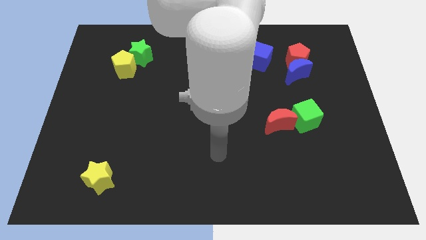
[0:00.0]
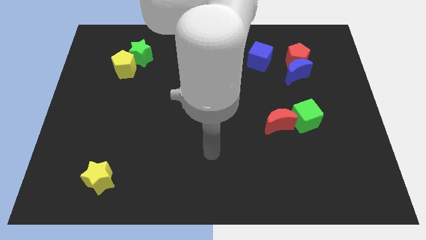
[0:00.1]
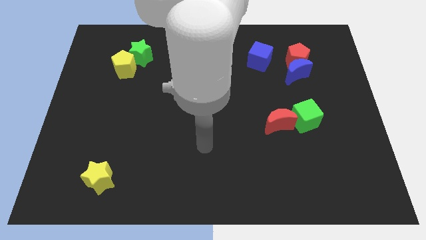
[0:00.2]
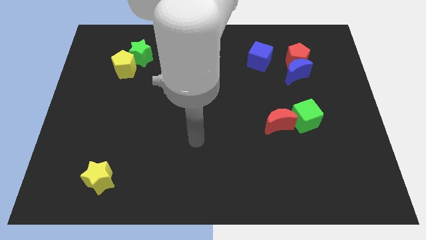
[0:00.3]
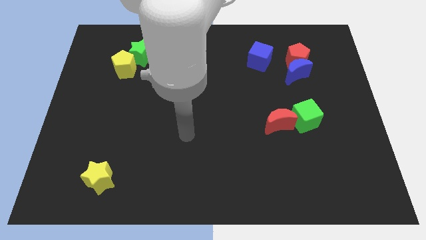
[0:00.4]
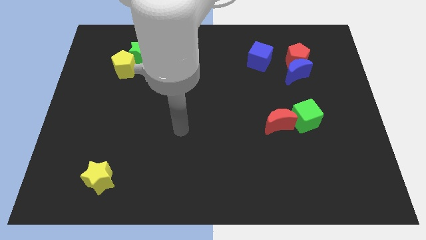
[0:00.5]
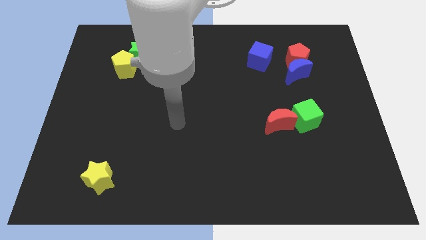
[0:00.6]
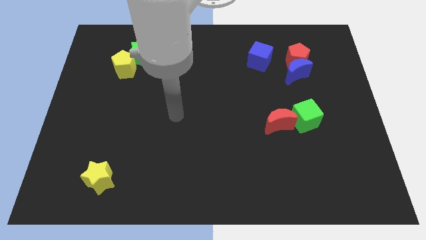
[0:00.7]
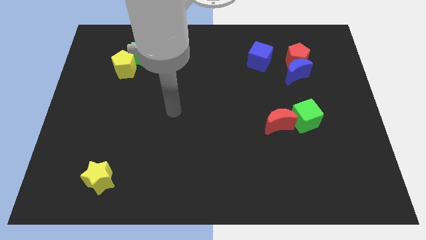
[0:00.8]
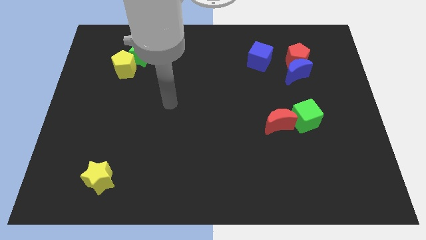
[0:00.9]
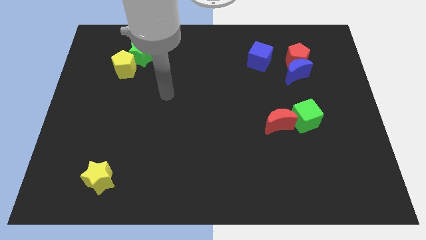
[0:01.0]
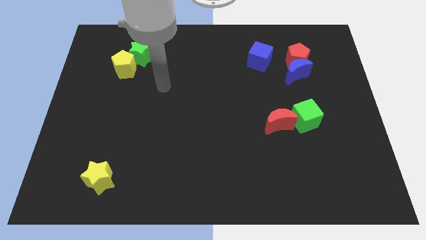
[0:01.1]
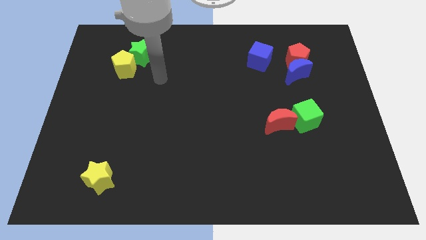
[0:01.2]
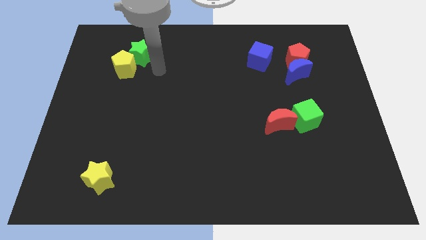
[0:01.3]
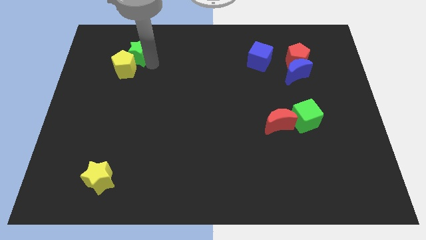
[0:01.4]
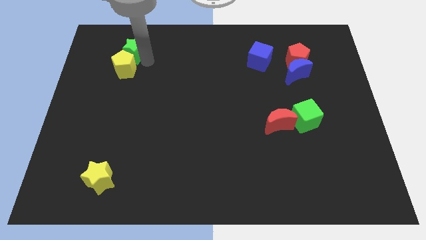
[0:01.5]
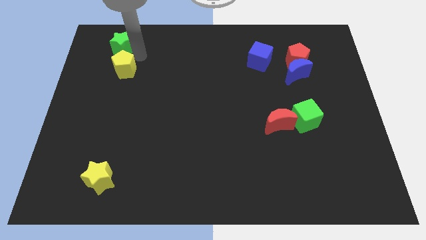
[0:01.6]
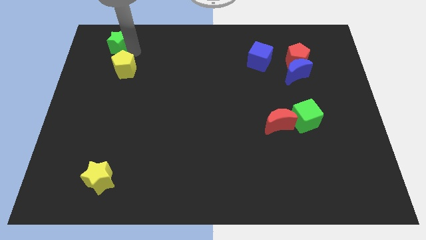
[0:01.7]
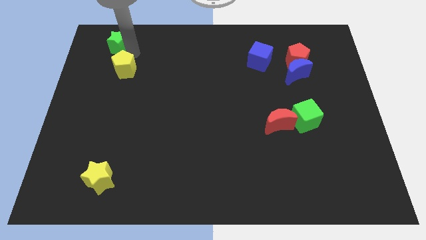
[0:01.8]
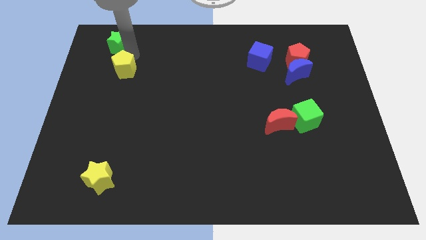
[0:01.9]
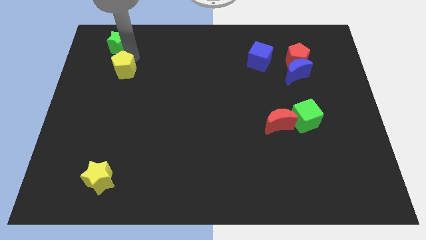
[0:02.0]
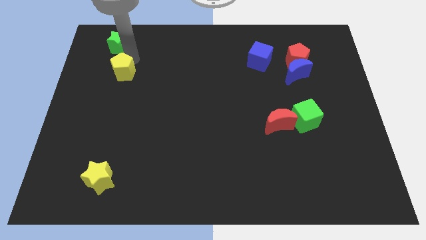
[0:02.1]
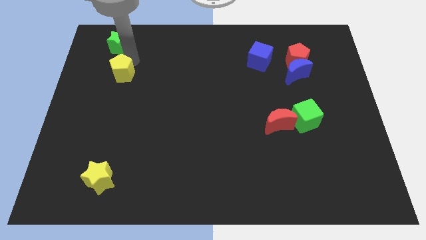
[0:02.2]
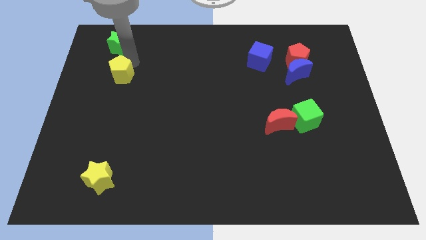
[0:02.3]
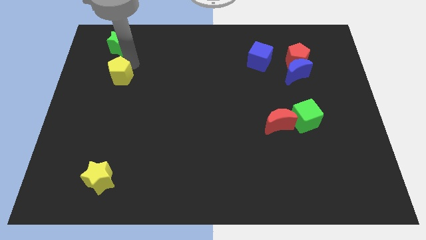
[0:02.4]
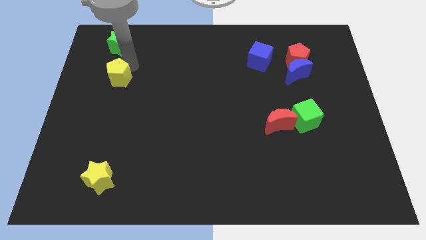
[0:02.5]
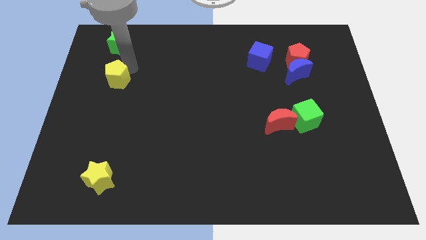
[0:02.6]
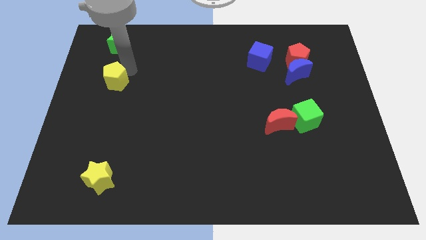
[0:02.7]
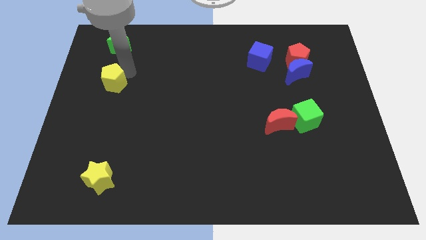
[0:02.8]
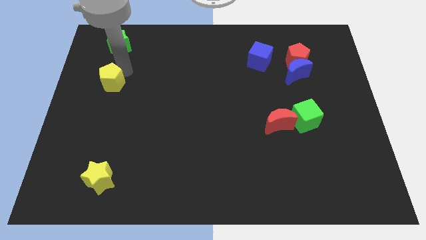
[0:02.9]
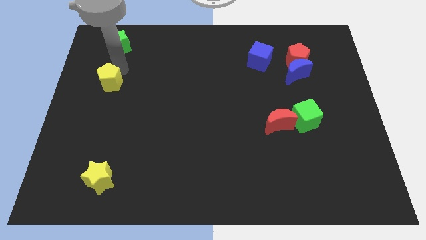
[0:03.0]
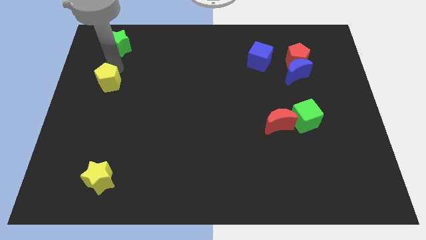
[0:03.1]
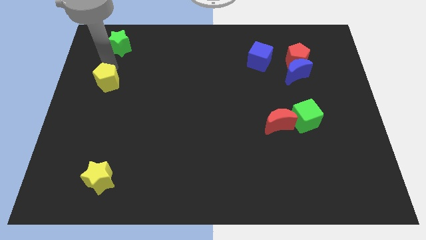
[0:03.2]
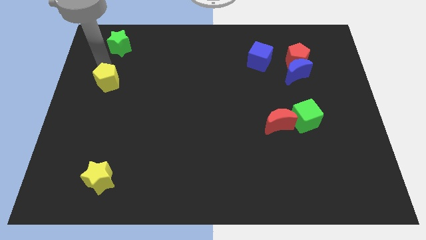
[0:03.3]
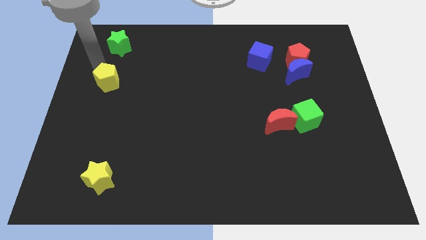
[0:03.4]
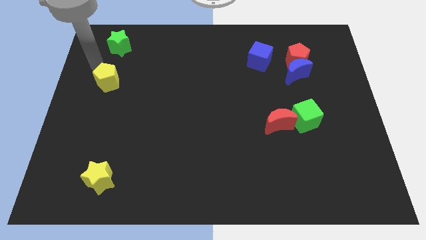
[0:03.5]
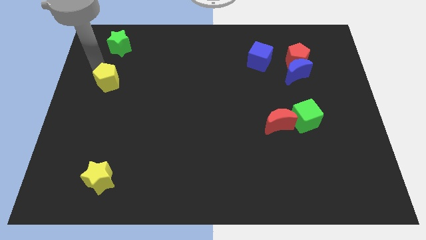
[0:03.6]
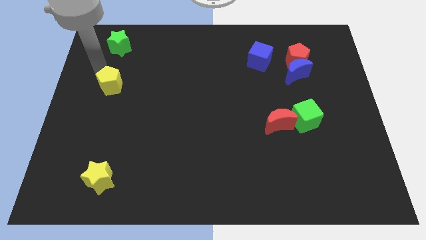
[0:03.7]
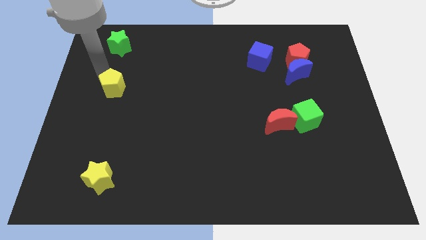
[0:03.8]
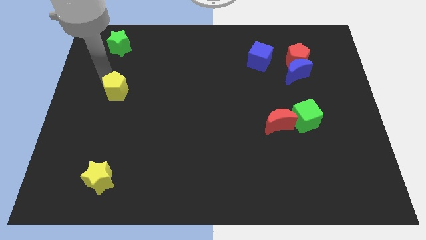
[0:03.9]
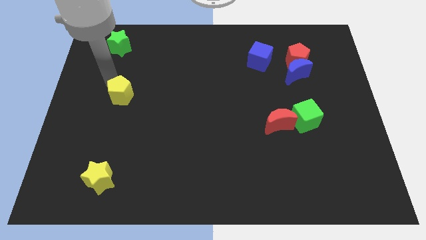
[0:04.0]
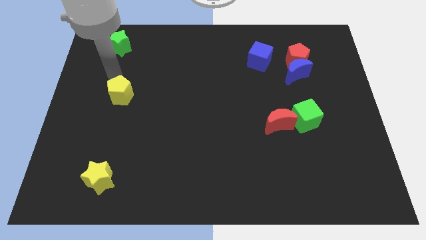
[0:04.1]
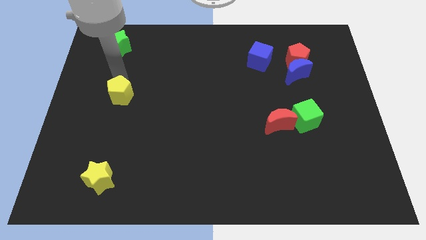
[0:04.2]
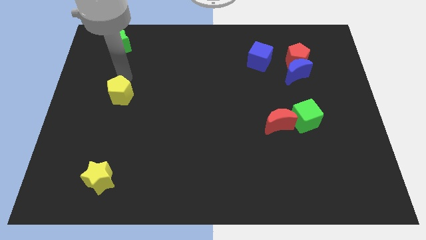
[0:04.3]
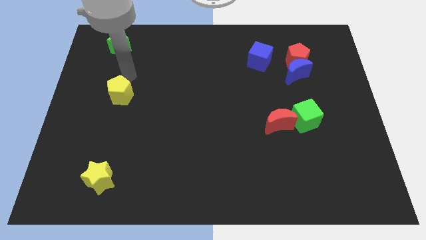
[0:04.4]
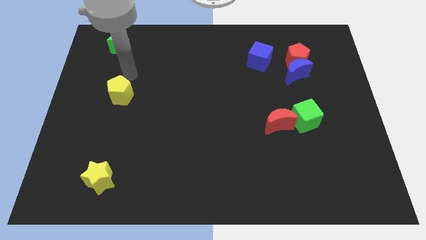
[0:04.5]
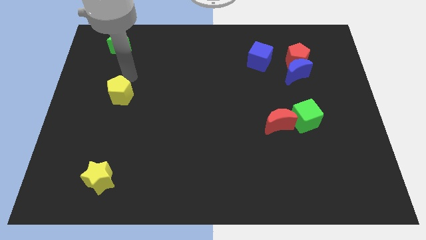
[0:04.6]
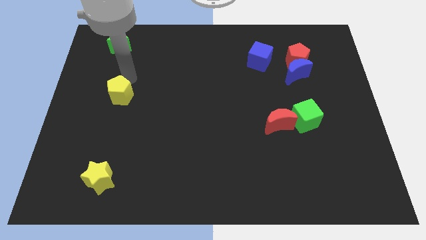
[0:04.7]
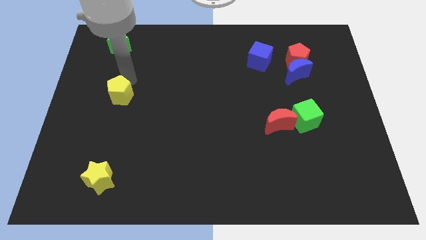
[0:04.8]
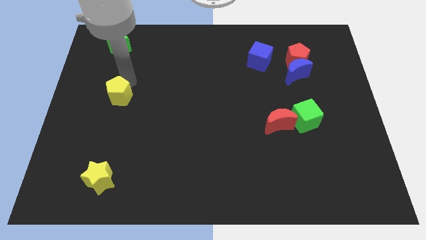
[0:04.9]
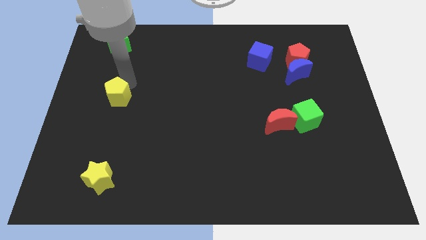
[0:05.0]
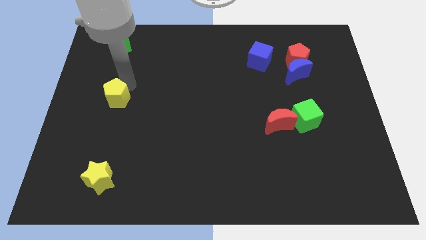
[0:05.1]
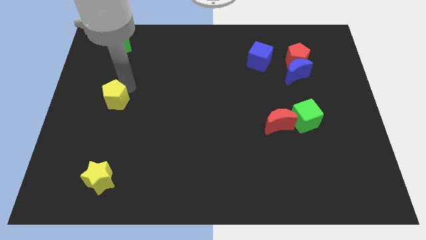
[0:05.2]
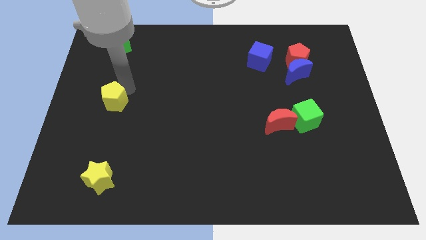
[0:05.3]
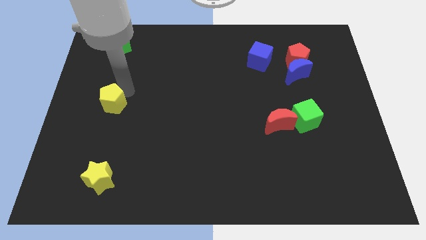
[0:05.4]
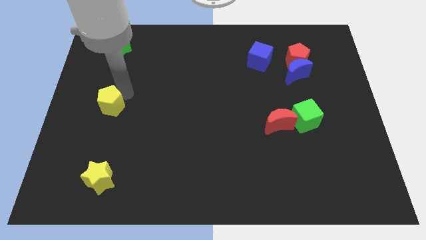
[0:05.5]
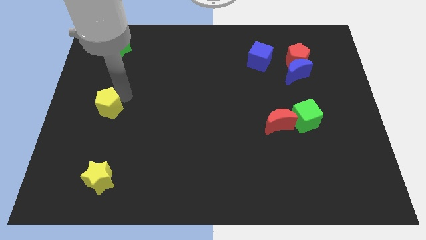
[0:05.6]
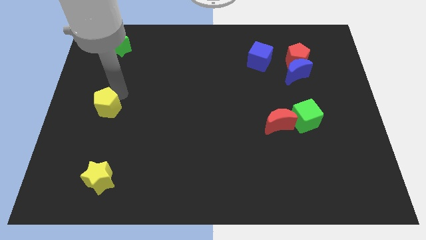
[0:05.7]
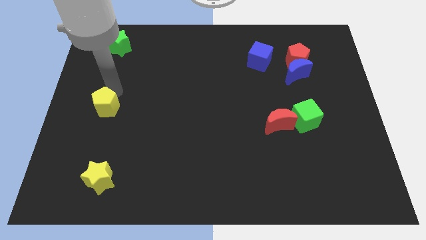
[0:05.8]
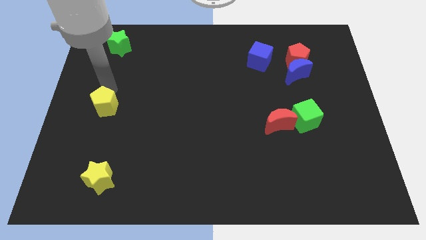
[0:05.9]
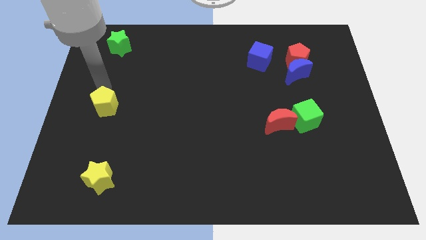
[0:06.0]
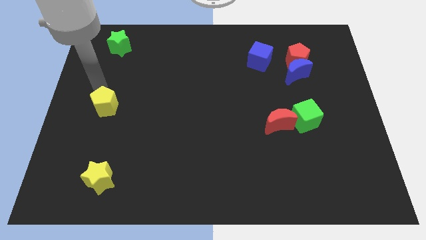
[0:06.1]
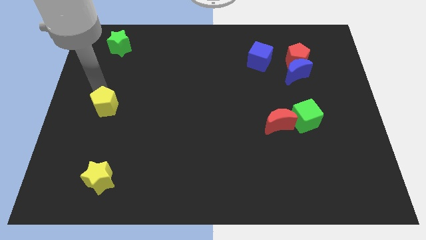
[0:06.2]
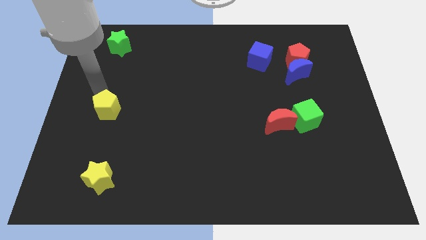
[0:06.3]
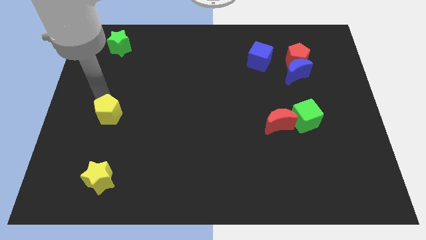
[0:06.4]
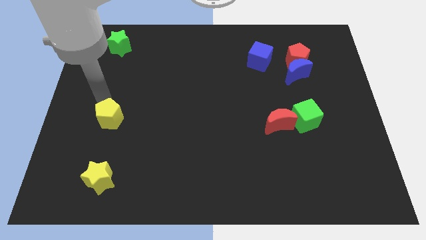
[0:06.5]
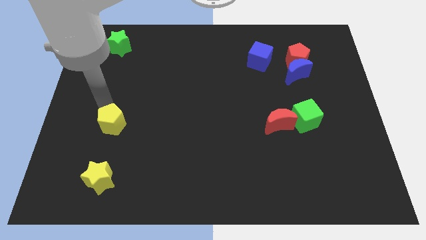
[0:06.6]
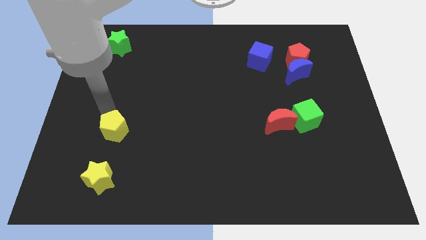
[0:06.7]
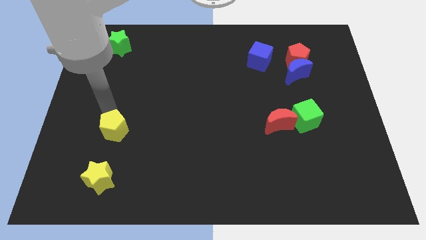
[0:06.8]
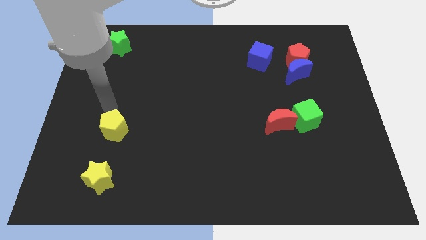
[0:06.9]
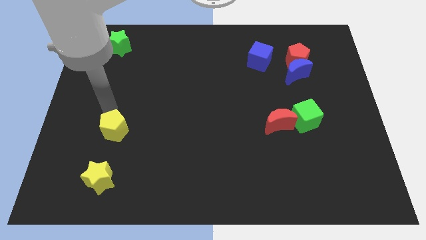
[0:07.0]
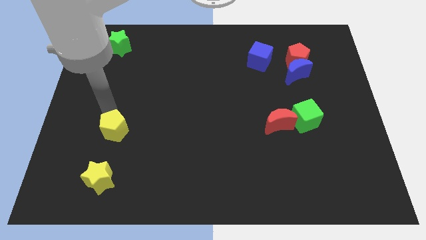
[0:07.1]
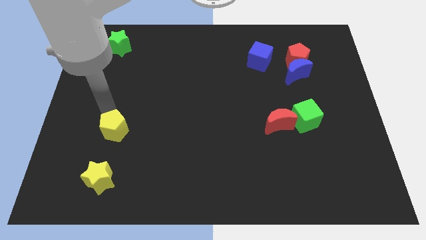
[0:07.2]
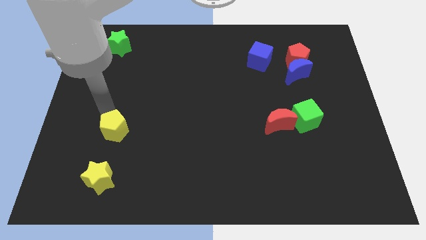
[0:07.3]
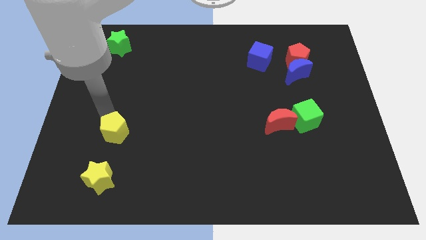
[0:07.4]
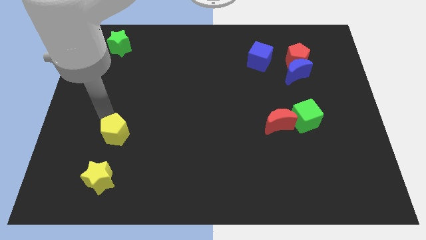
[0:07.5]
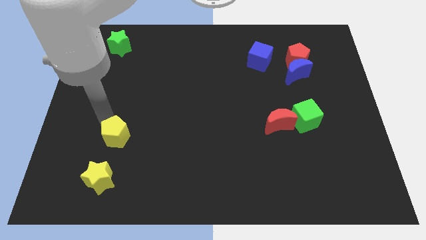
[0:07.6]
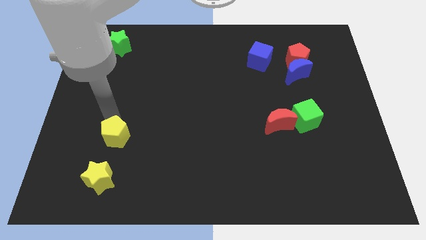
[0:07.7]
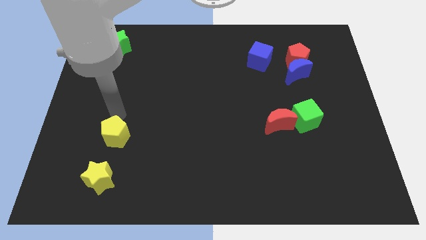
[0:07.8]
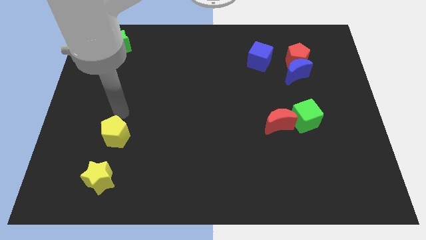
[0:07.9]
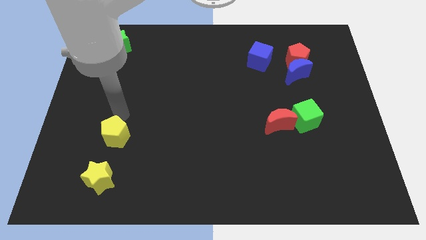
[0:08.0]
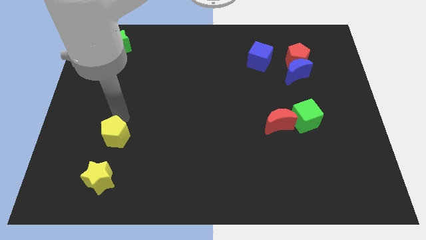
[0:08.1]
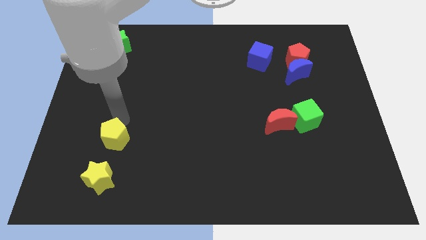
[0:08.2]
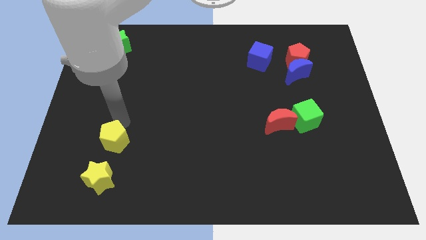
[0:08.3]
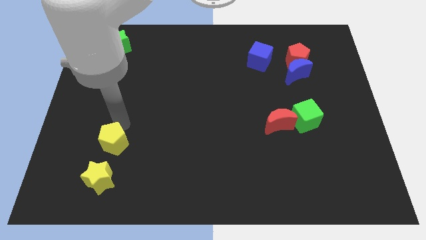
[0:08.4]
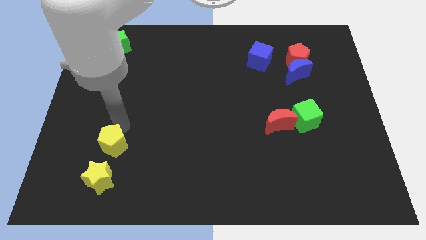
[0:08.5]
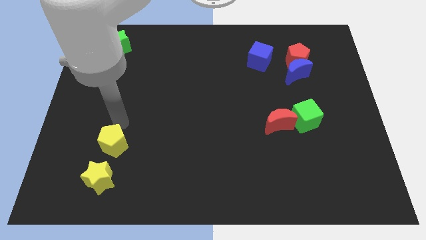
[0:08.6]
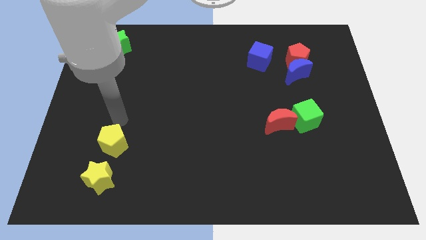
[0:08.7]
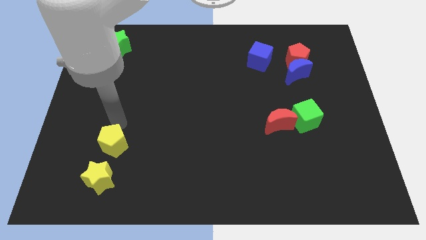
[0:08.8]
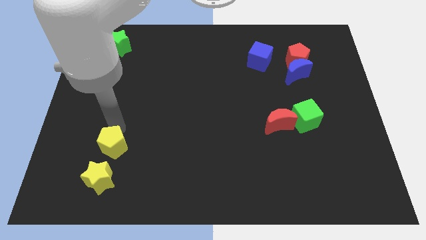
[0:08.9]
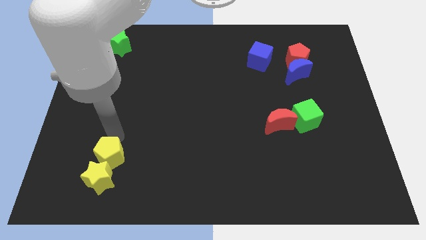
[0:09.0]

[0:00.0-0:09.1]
slide the yellow pentagon close to the yellow star
